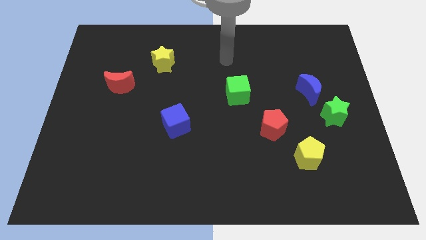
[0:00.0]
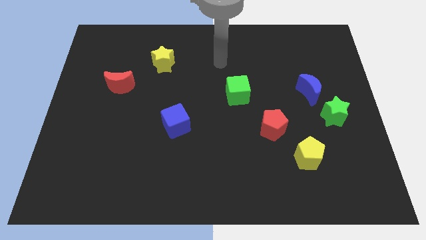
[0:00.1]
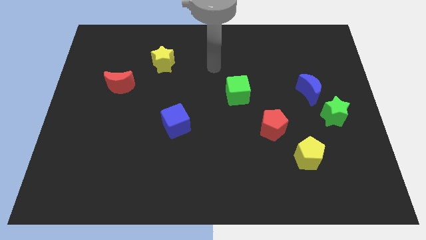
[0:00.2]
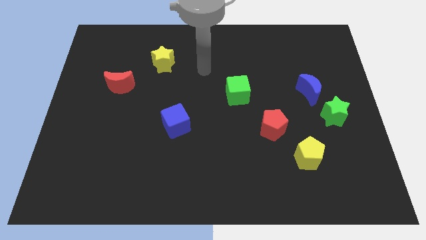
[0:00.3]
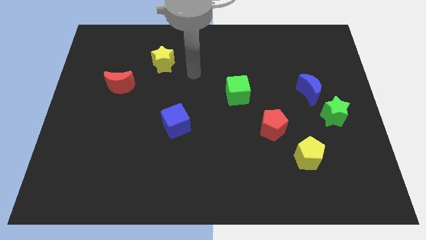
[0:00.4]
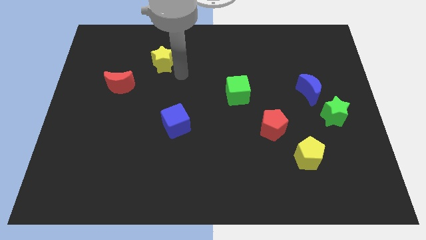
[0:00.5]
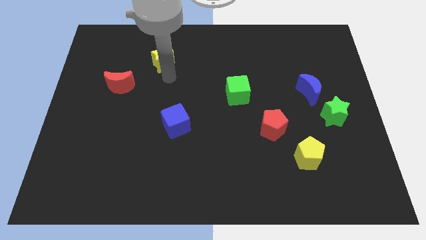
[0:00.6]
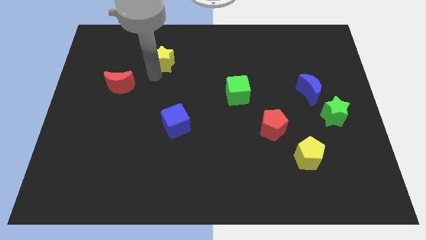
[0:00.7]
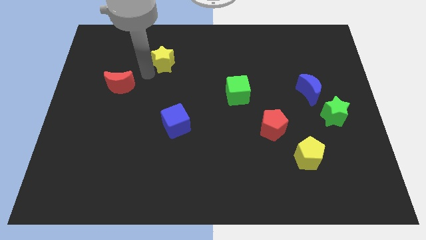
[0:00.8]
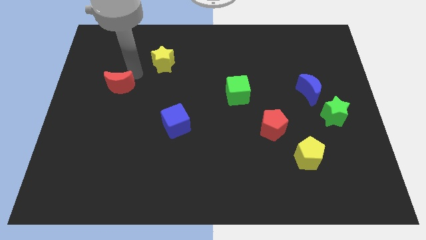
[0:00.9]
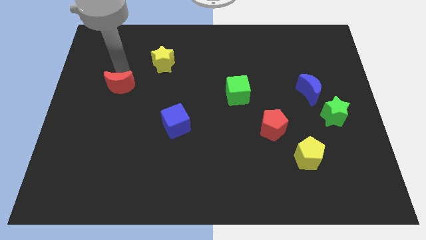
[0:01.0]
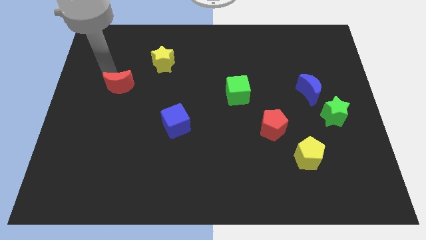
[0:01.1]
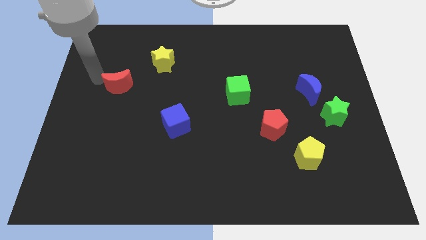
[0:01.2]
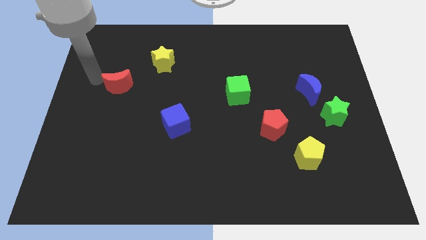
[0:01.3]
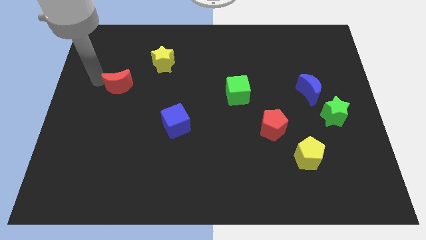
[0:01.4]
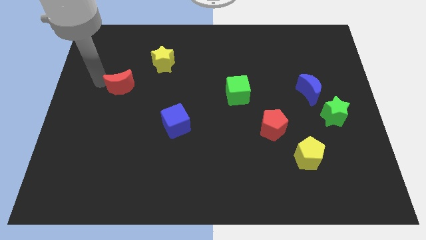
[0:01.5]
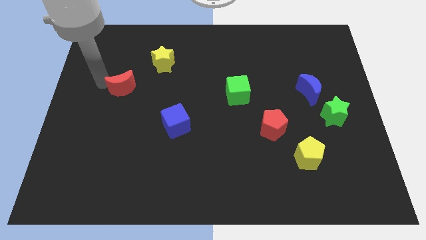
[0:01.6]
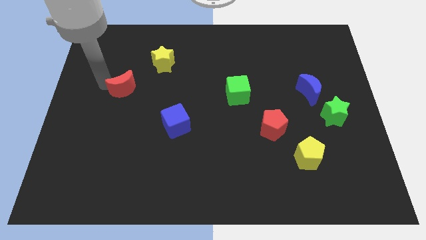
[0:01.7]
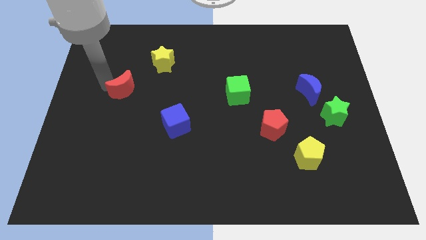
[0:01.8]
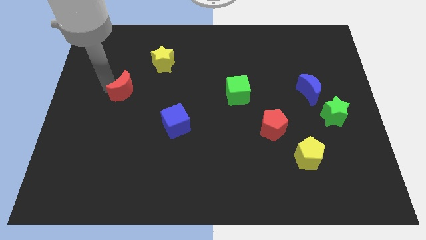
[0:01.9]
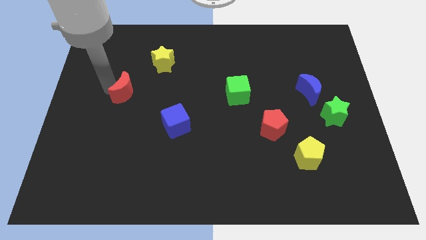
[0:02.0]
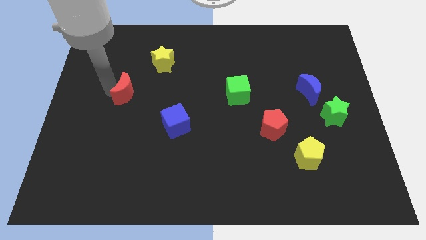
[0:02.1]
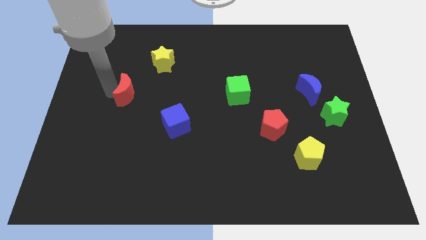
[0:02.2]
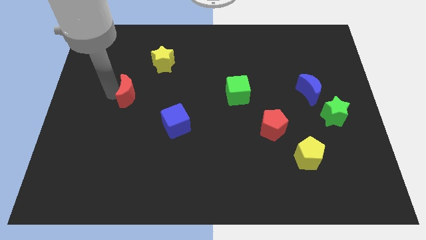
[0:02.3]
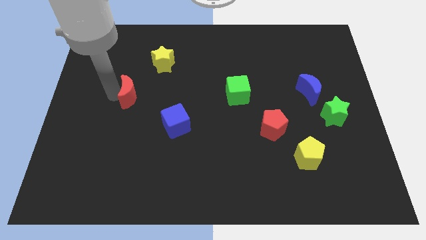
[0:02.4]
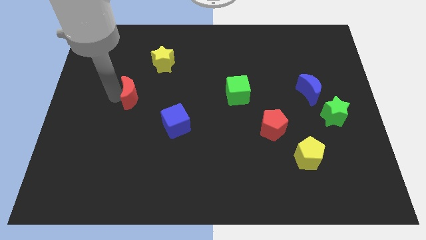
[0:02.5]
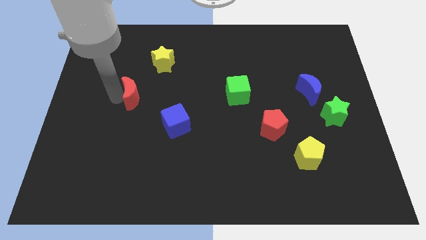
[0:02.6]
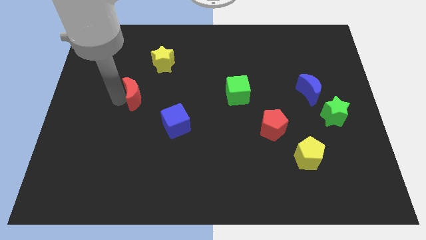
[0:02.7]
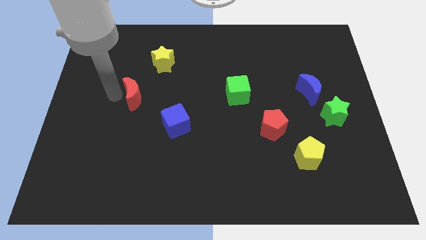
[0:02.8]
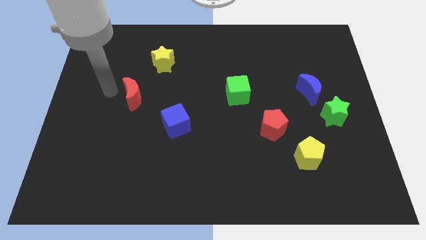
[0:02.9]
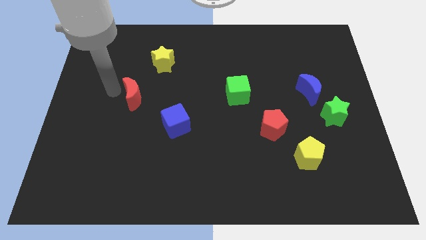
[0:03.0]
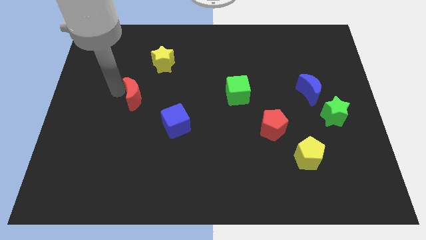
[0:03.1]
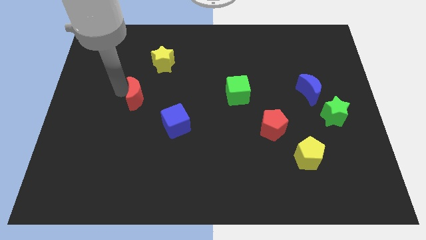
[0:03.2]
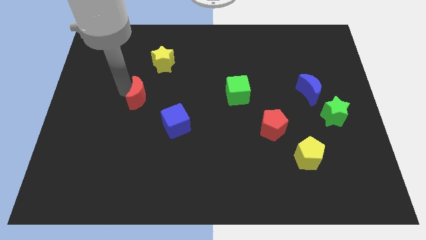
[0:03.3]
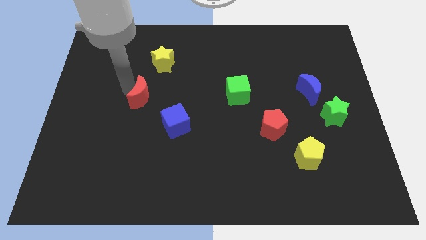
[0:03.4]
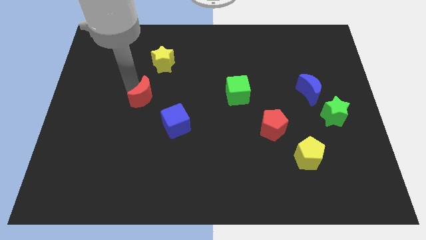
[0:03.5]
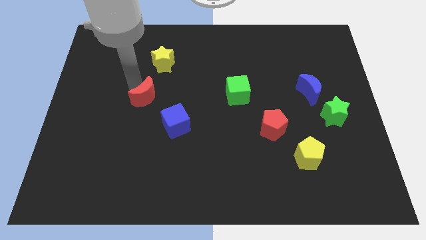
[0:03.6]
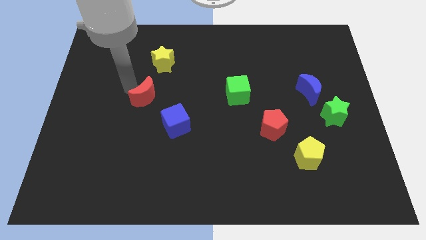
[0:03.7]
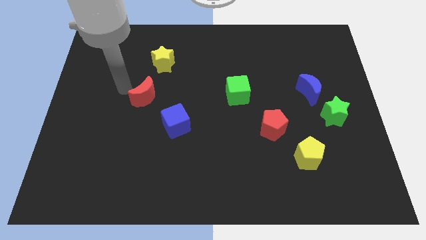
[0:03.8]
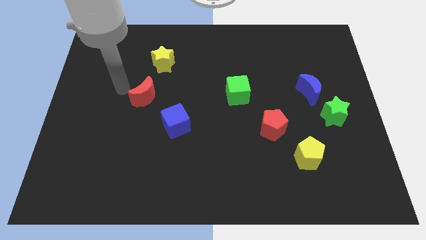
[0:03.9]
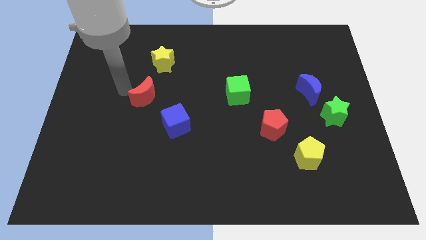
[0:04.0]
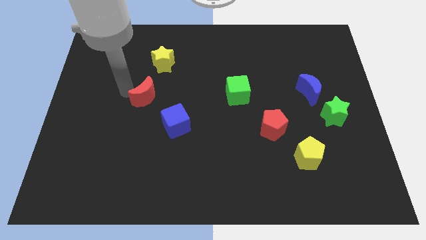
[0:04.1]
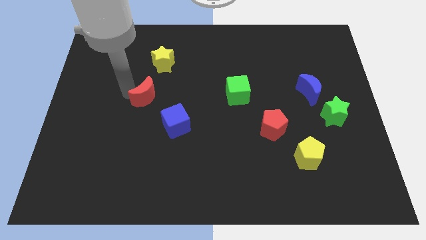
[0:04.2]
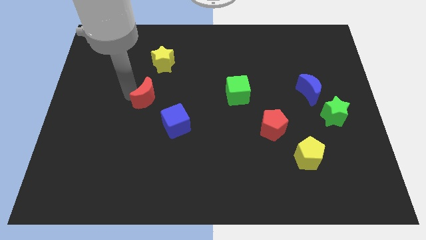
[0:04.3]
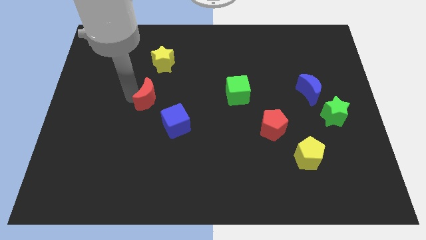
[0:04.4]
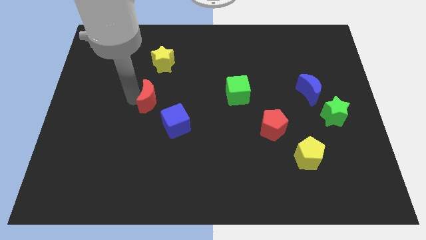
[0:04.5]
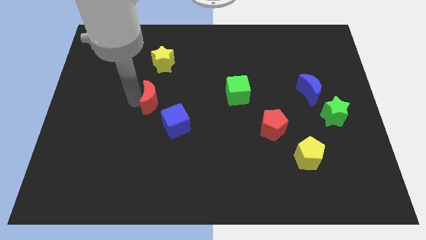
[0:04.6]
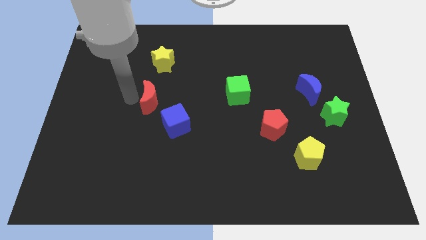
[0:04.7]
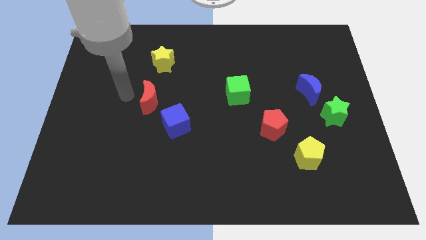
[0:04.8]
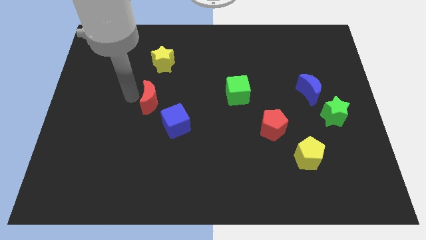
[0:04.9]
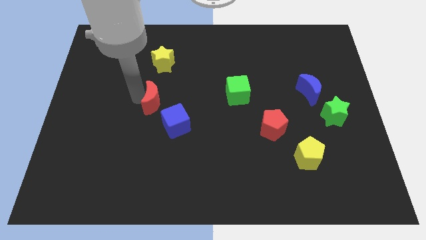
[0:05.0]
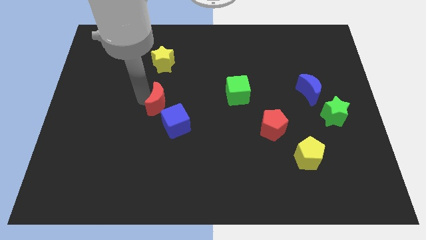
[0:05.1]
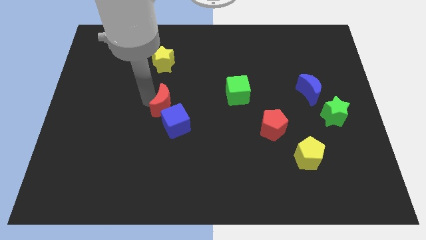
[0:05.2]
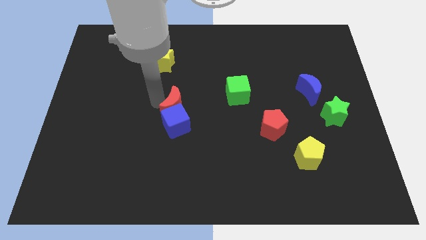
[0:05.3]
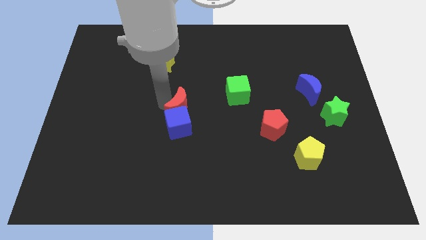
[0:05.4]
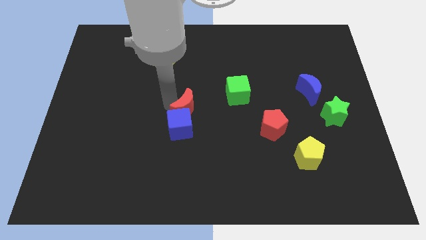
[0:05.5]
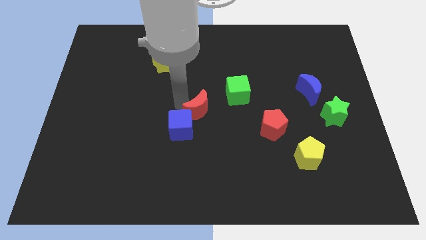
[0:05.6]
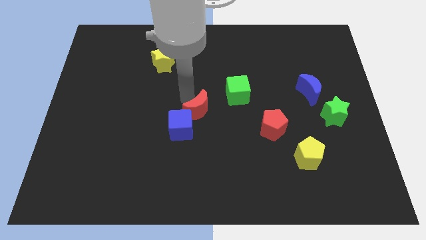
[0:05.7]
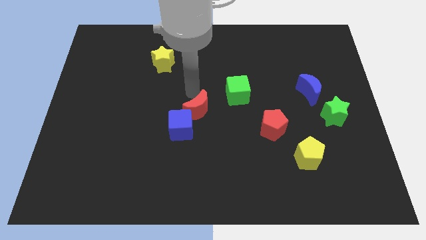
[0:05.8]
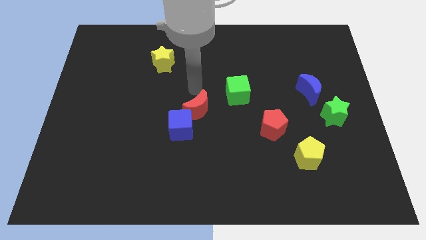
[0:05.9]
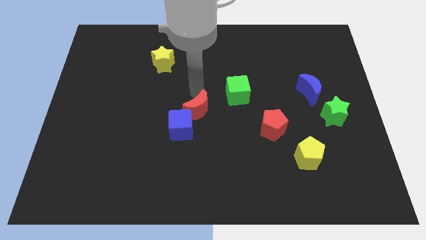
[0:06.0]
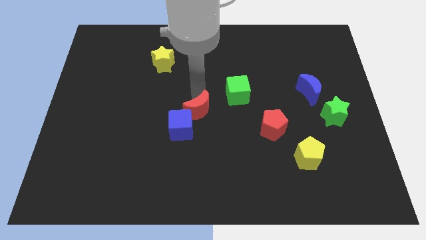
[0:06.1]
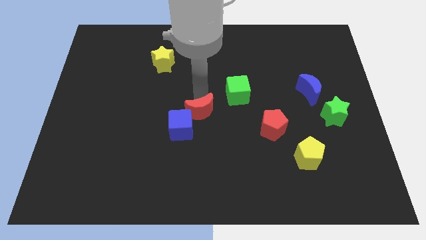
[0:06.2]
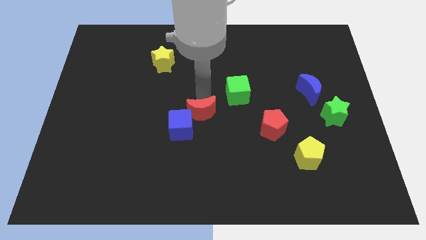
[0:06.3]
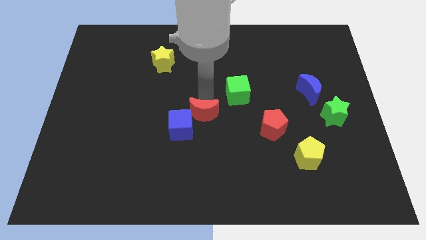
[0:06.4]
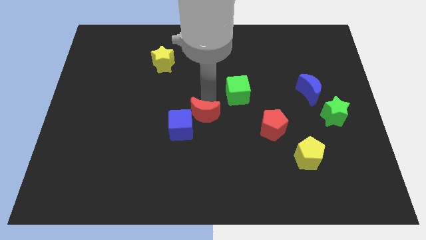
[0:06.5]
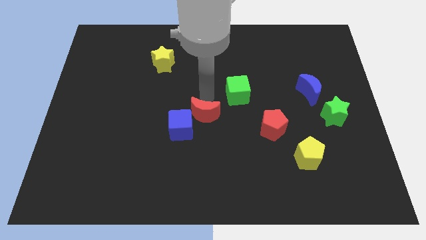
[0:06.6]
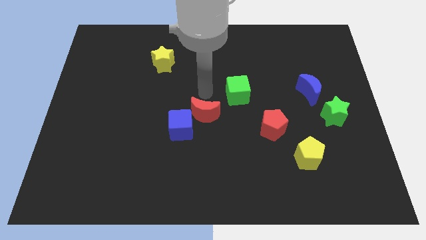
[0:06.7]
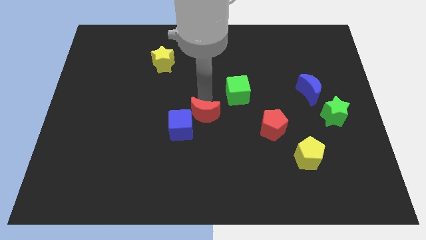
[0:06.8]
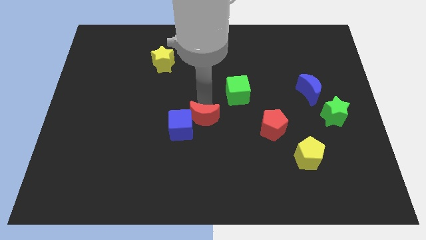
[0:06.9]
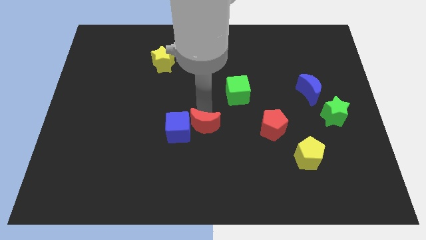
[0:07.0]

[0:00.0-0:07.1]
move the red moon to the bottom right side of the blue cube
